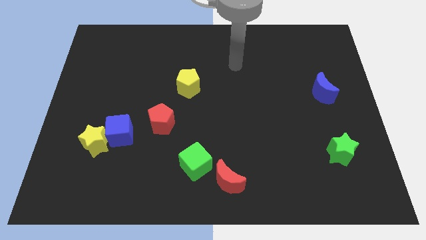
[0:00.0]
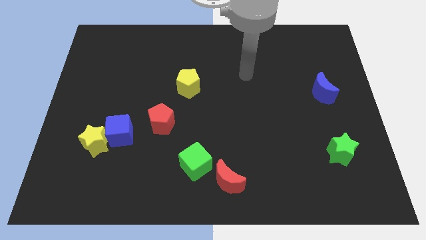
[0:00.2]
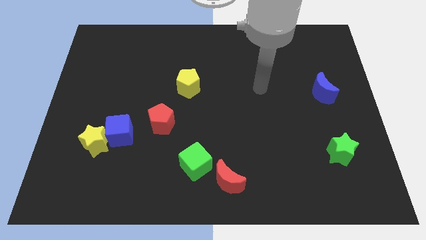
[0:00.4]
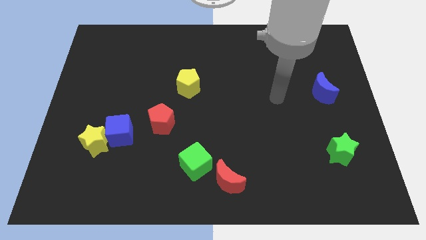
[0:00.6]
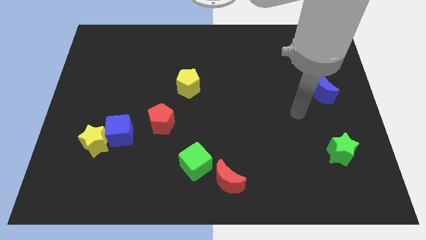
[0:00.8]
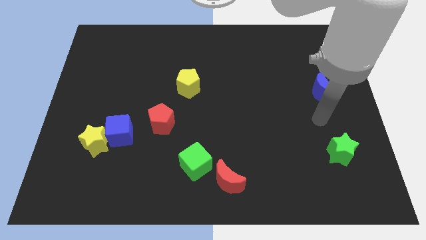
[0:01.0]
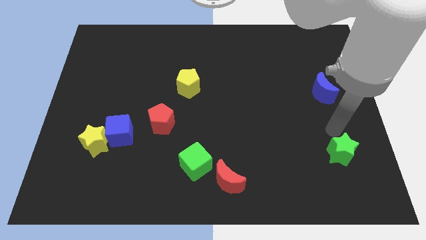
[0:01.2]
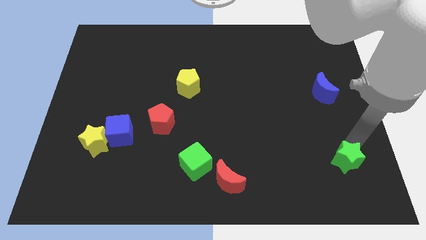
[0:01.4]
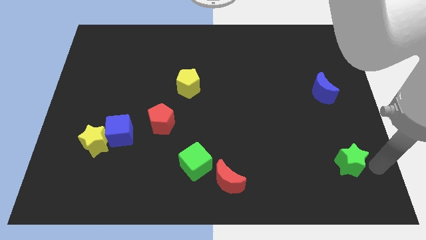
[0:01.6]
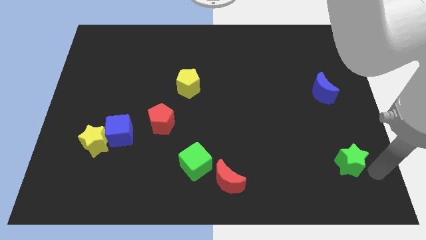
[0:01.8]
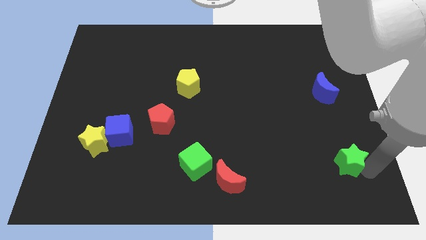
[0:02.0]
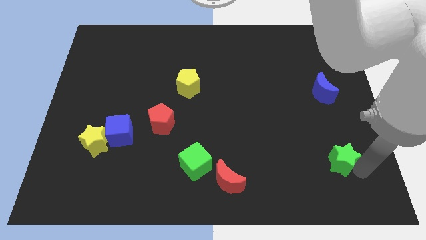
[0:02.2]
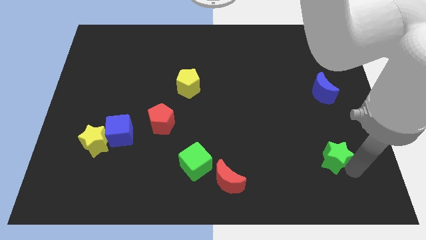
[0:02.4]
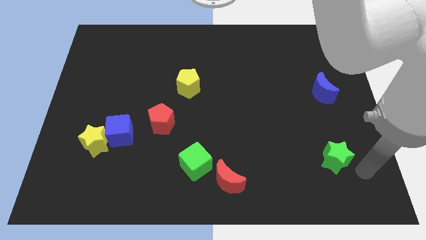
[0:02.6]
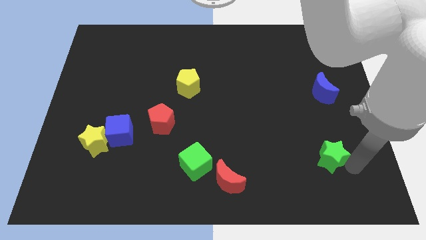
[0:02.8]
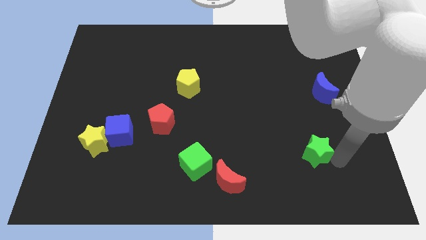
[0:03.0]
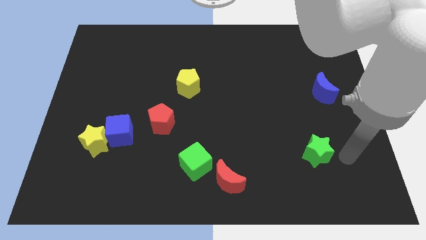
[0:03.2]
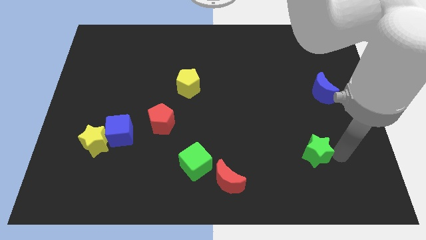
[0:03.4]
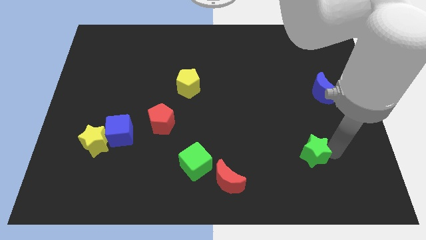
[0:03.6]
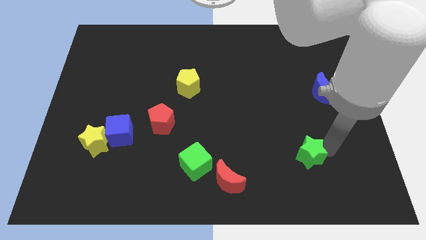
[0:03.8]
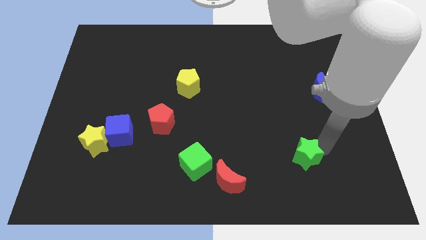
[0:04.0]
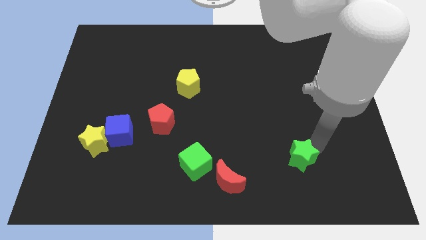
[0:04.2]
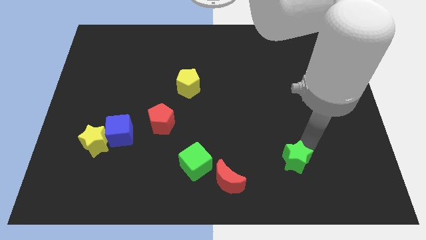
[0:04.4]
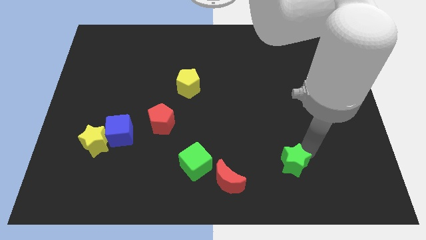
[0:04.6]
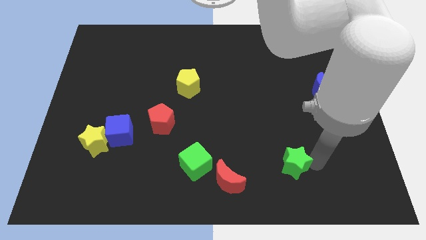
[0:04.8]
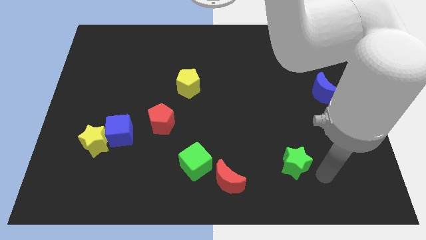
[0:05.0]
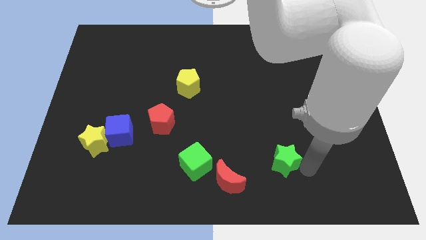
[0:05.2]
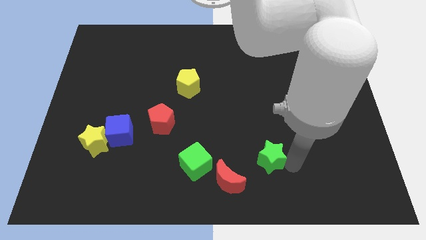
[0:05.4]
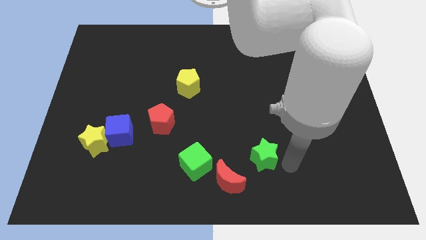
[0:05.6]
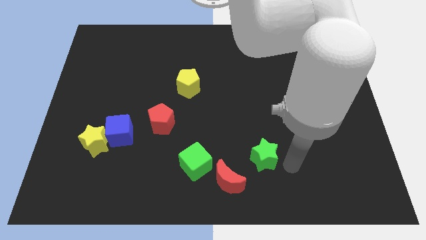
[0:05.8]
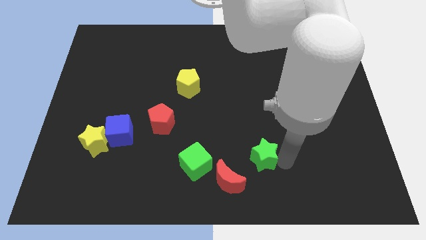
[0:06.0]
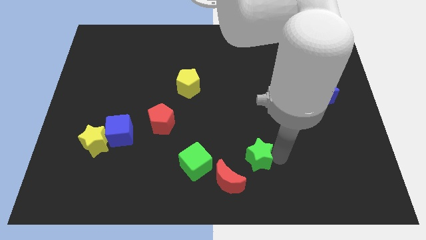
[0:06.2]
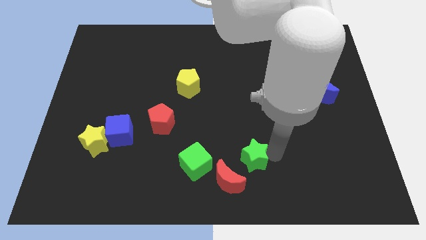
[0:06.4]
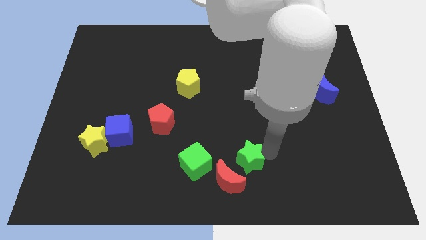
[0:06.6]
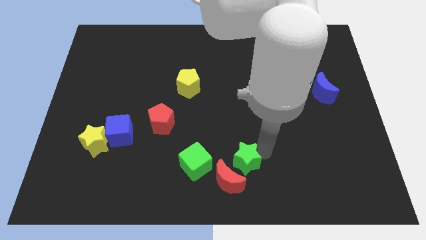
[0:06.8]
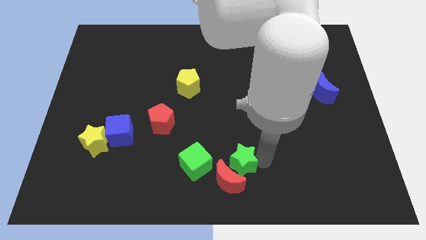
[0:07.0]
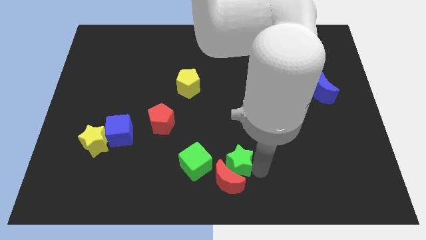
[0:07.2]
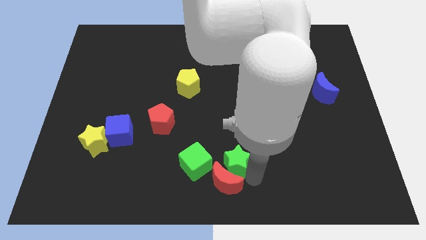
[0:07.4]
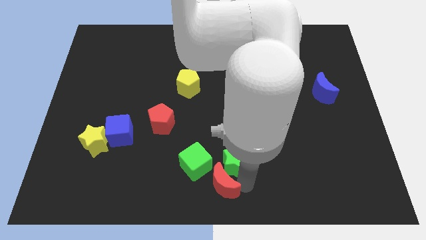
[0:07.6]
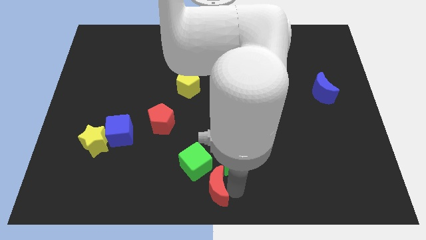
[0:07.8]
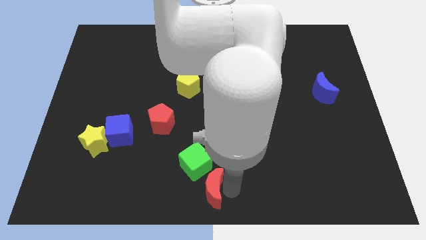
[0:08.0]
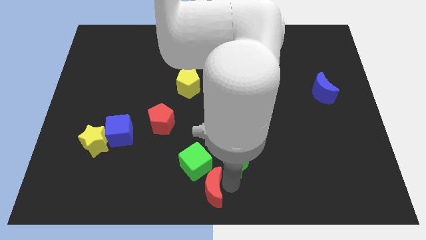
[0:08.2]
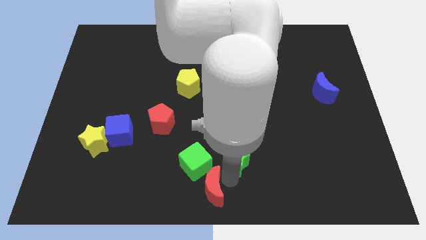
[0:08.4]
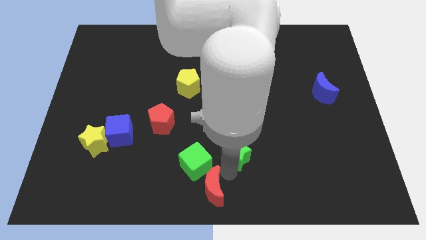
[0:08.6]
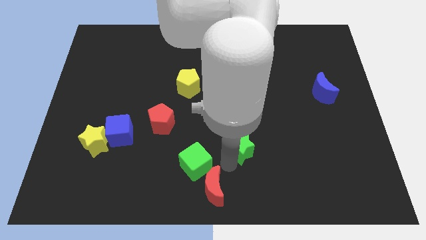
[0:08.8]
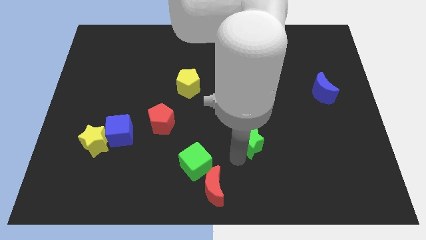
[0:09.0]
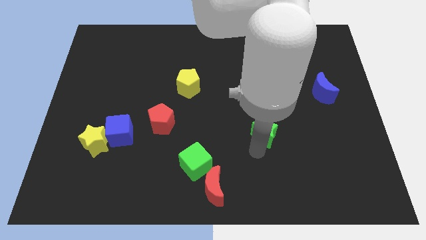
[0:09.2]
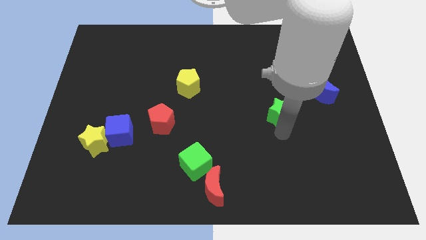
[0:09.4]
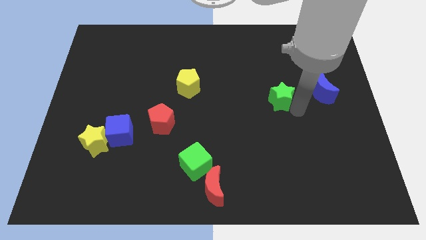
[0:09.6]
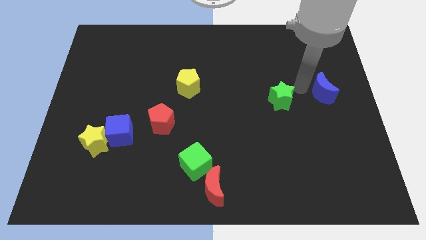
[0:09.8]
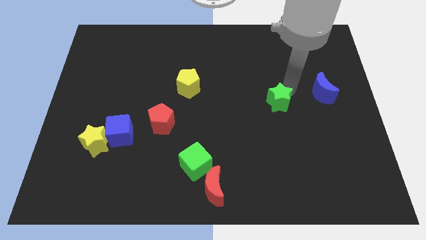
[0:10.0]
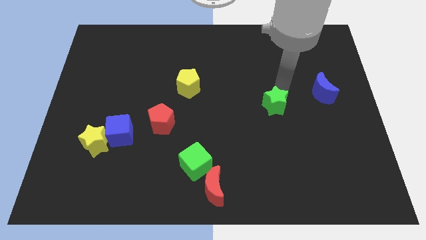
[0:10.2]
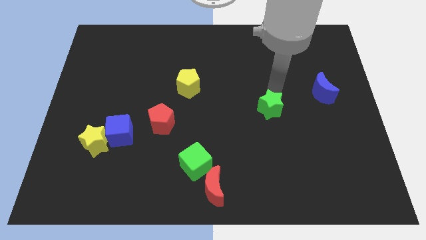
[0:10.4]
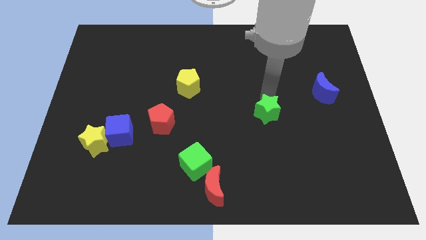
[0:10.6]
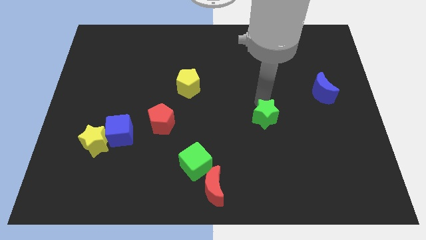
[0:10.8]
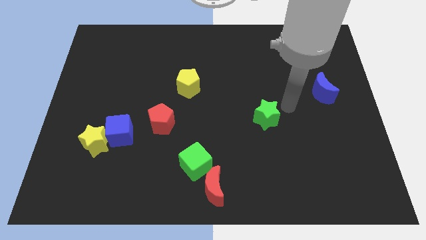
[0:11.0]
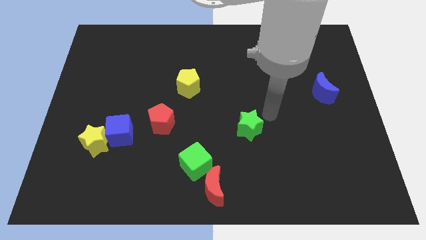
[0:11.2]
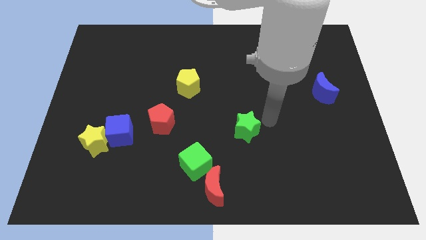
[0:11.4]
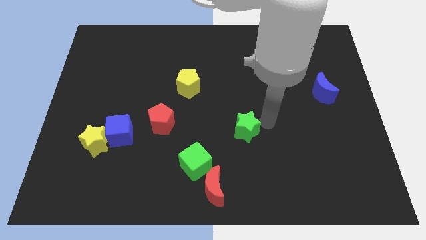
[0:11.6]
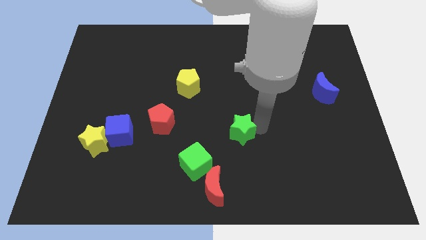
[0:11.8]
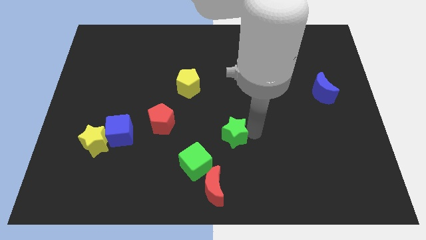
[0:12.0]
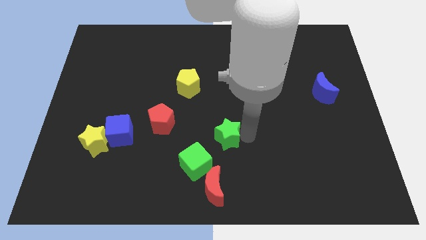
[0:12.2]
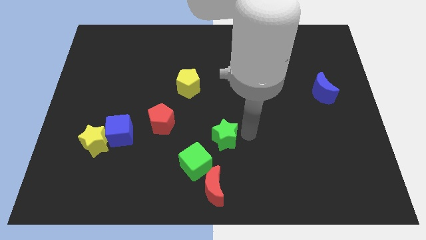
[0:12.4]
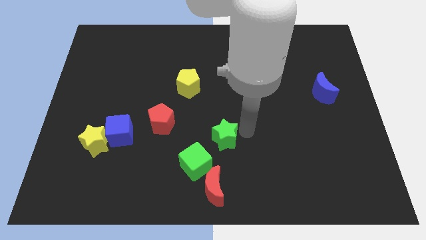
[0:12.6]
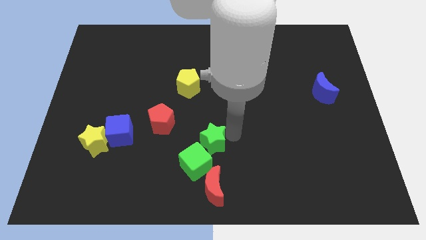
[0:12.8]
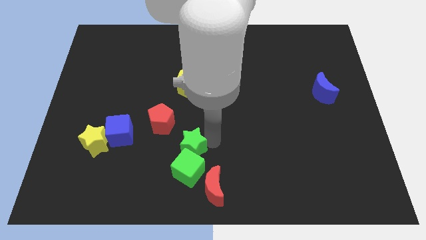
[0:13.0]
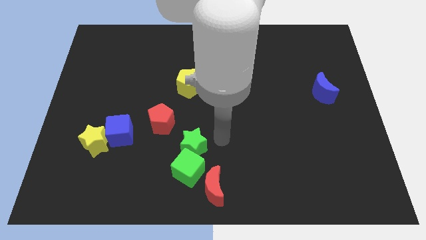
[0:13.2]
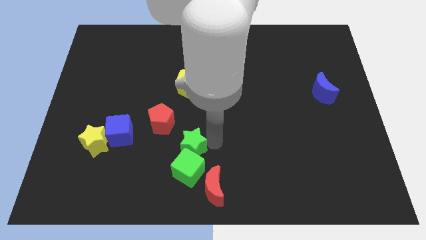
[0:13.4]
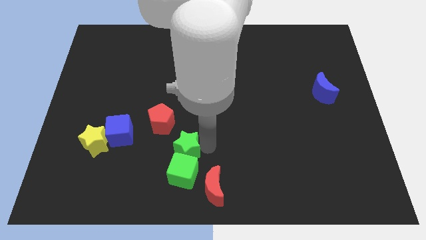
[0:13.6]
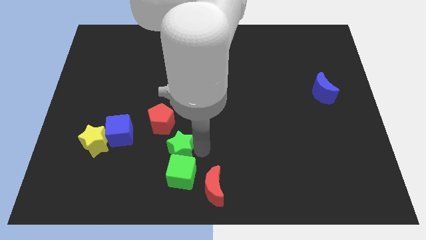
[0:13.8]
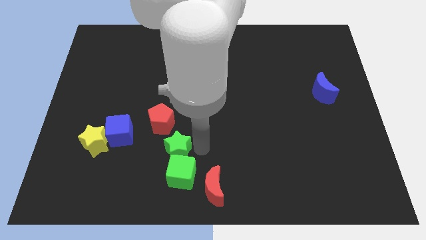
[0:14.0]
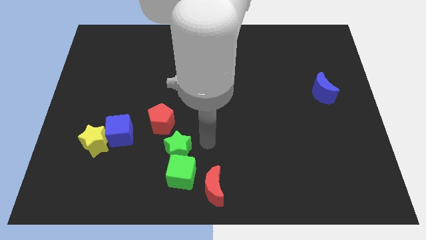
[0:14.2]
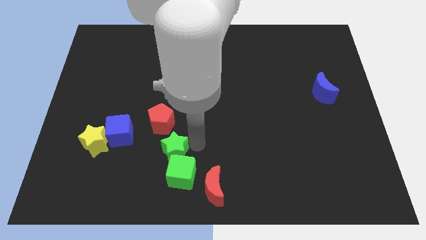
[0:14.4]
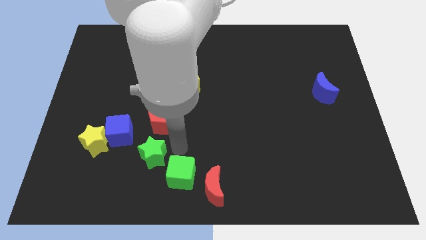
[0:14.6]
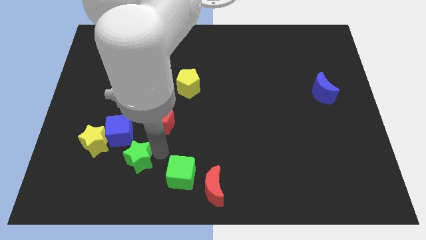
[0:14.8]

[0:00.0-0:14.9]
slide the green star diagonally down and to the right of the yellow star

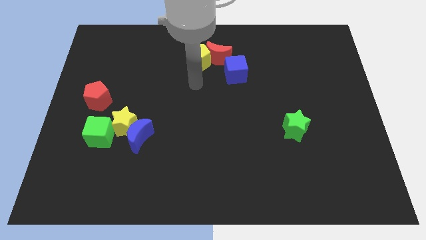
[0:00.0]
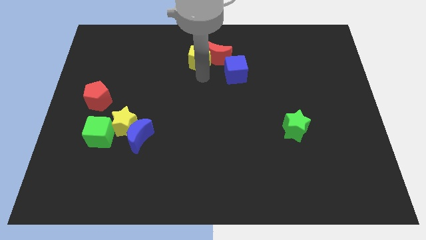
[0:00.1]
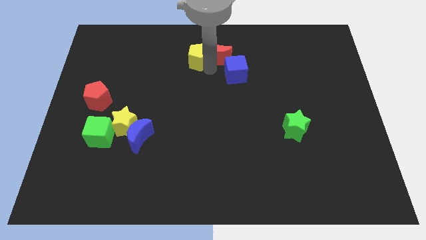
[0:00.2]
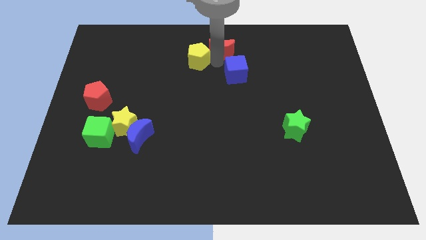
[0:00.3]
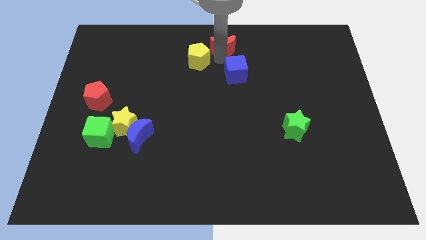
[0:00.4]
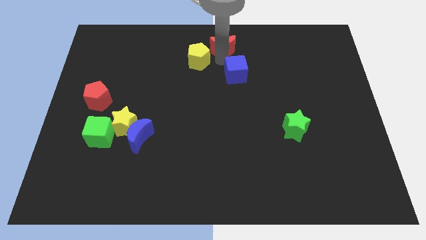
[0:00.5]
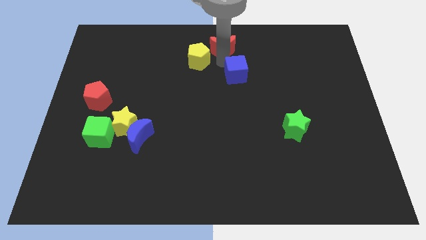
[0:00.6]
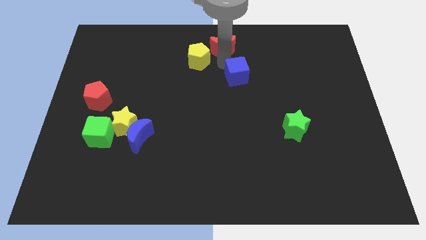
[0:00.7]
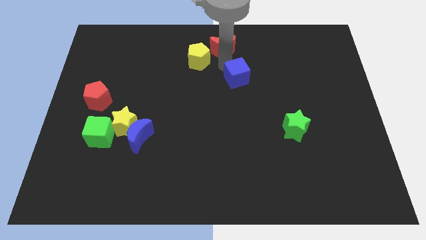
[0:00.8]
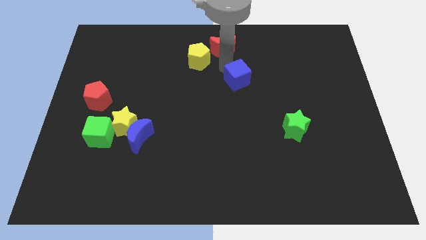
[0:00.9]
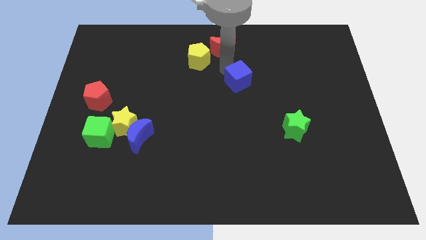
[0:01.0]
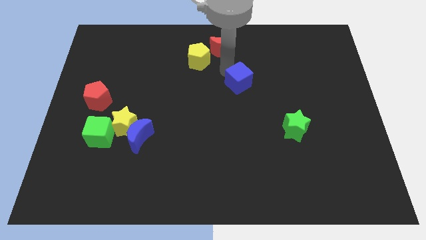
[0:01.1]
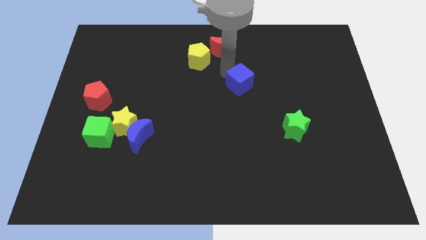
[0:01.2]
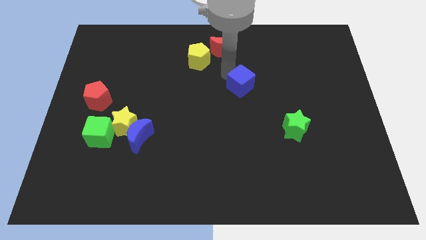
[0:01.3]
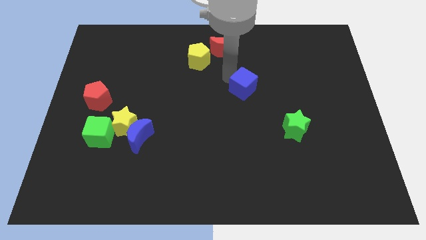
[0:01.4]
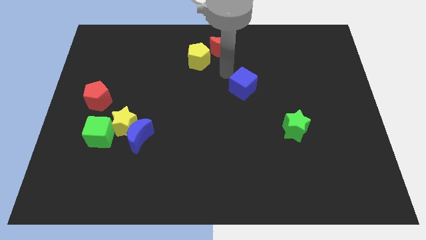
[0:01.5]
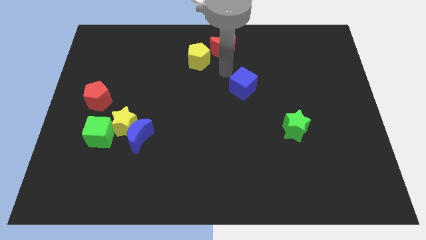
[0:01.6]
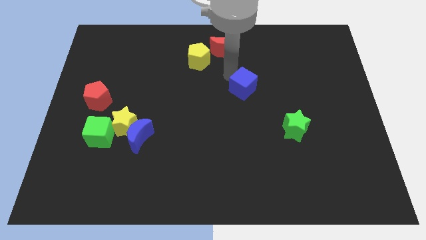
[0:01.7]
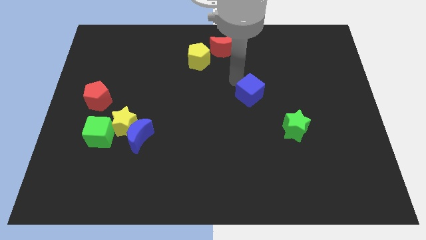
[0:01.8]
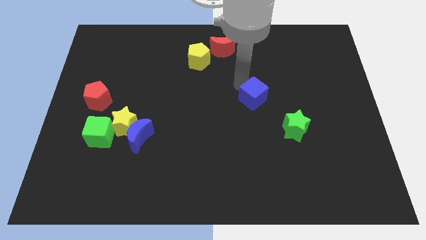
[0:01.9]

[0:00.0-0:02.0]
push the blue cube to the top left of the green star
